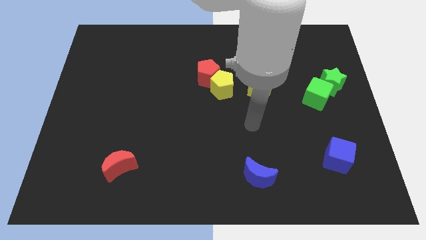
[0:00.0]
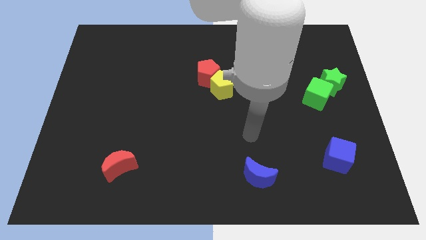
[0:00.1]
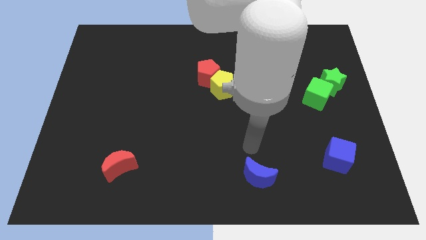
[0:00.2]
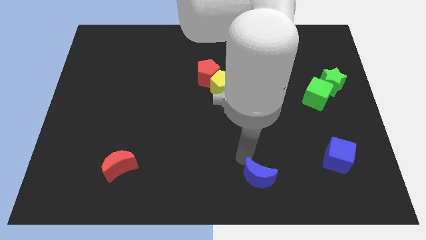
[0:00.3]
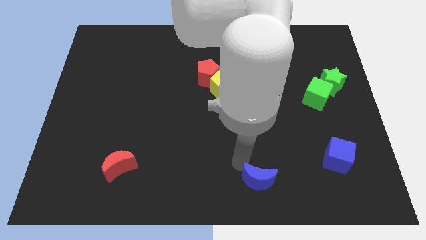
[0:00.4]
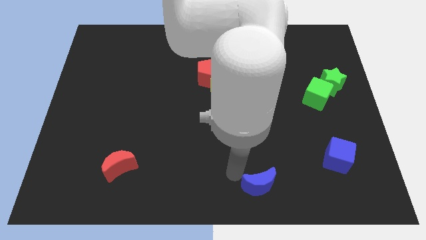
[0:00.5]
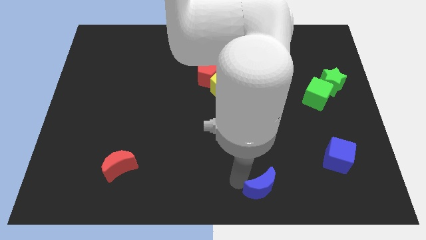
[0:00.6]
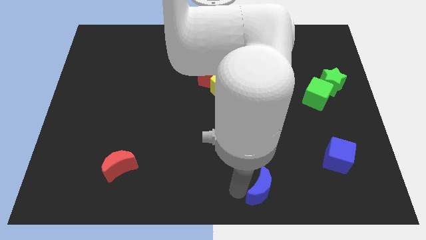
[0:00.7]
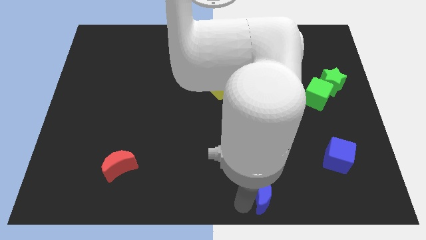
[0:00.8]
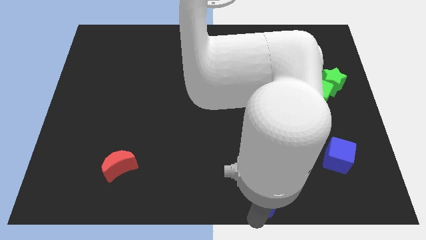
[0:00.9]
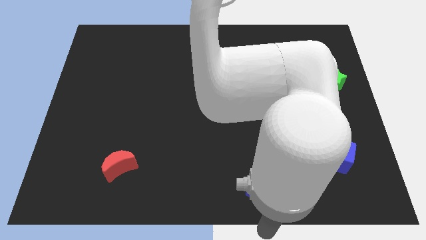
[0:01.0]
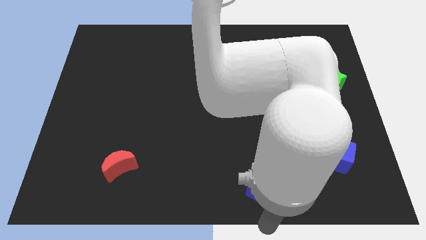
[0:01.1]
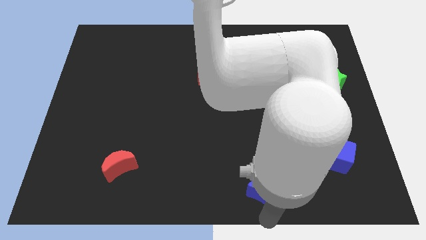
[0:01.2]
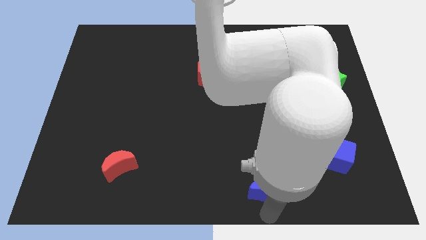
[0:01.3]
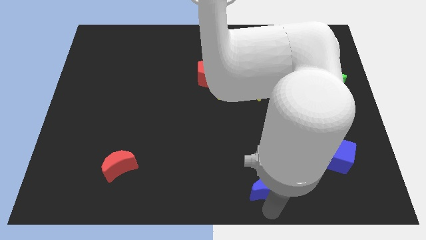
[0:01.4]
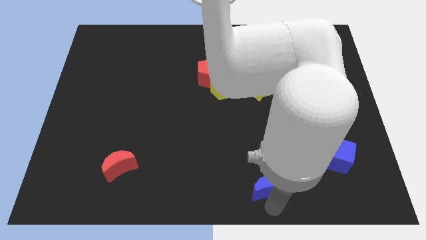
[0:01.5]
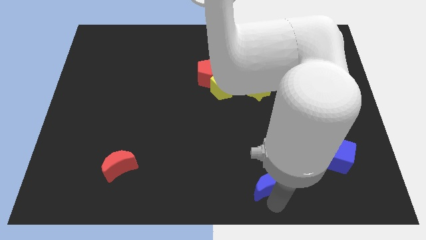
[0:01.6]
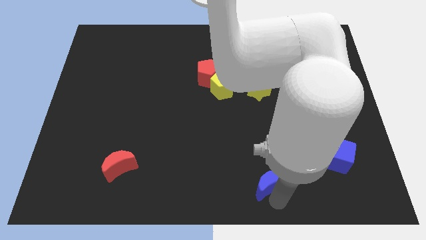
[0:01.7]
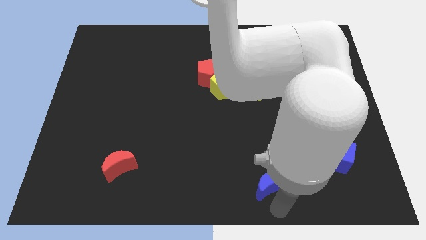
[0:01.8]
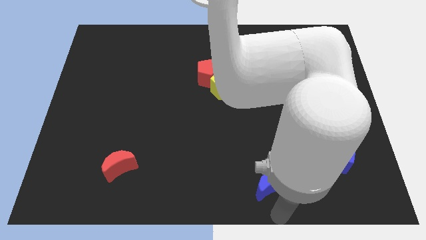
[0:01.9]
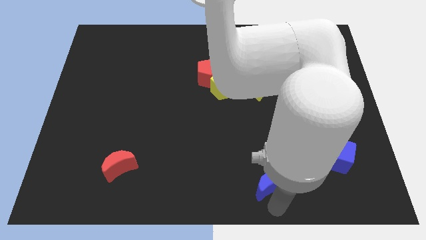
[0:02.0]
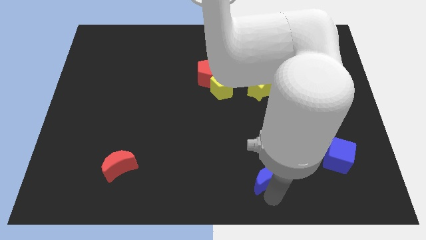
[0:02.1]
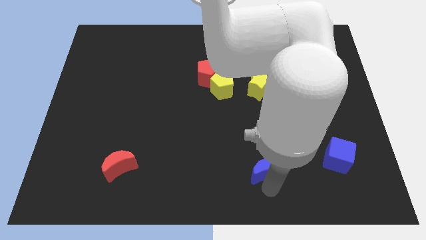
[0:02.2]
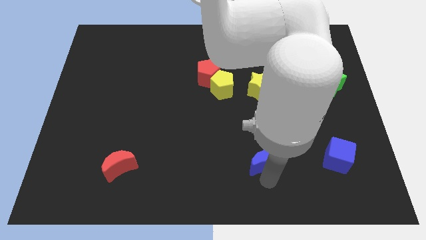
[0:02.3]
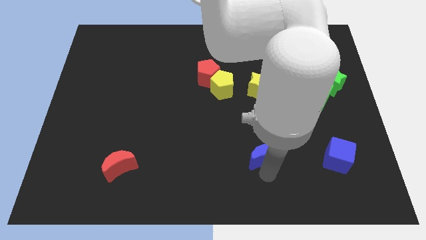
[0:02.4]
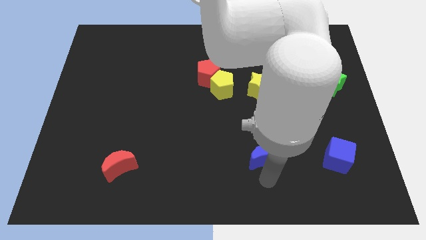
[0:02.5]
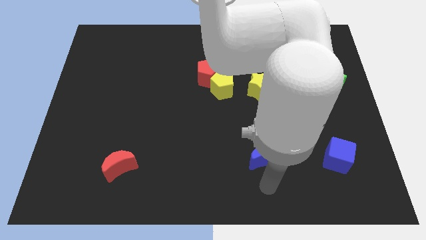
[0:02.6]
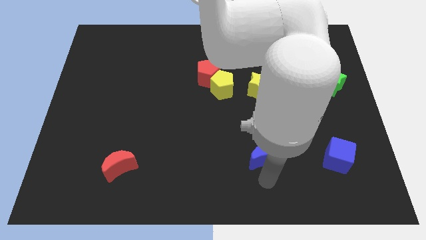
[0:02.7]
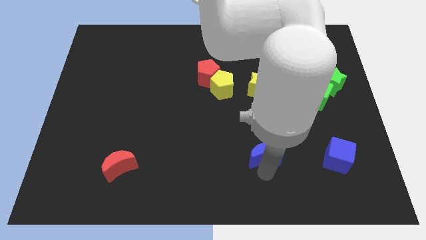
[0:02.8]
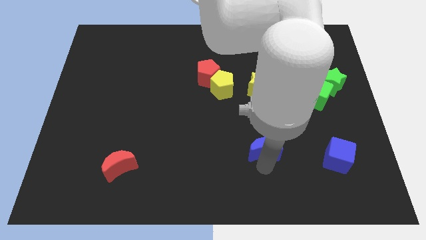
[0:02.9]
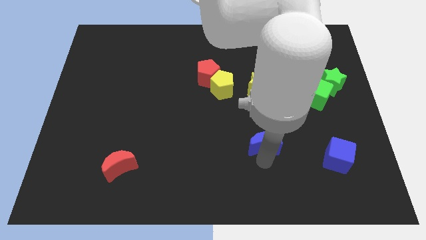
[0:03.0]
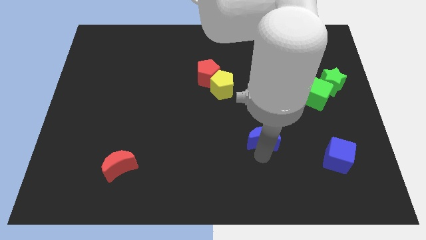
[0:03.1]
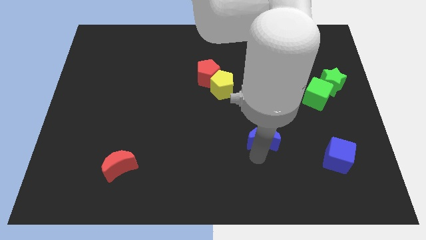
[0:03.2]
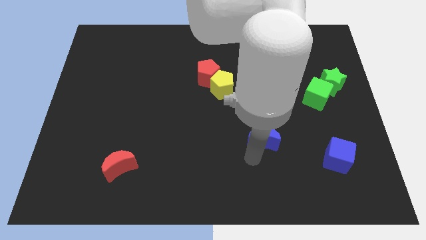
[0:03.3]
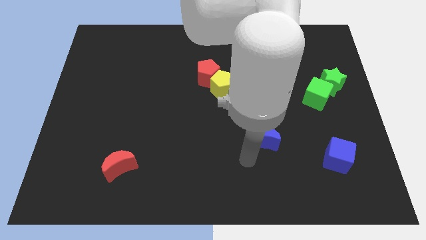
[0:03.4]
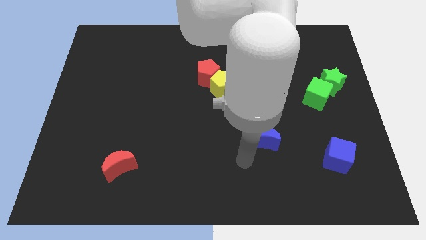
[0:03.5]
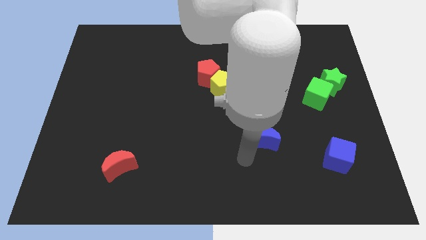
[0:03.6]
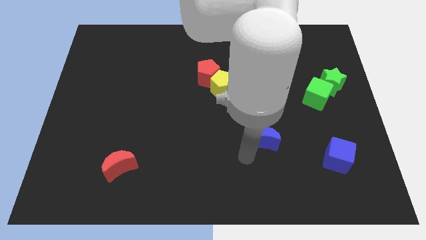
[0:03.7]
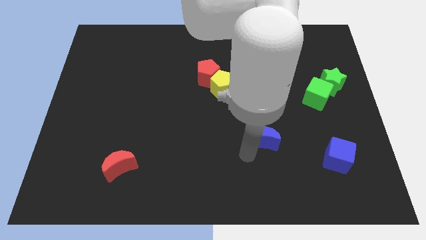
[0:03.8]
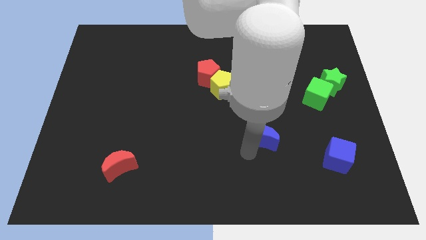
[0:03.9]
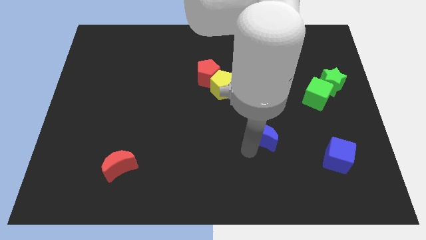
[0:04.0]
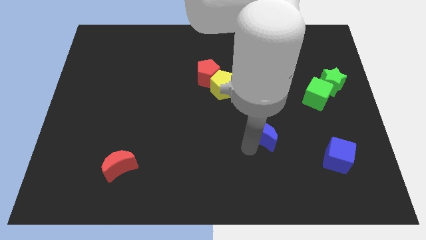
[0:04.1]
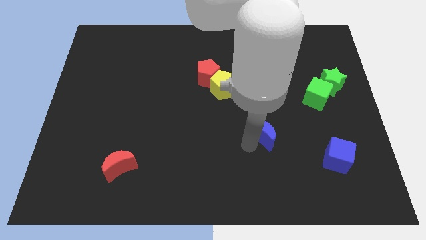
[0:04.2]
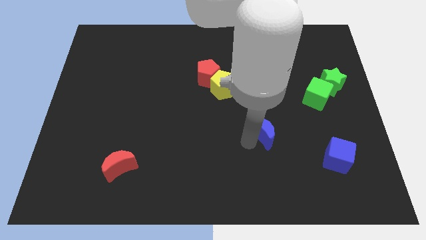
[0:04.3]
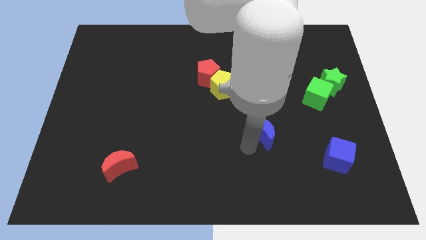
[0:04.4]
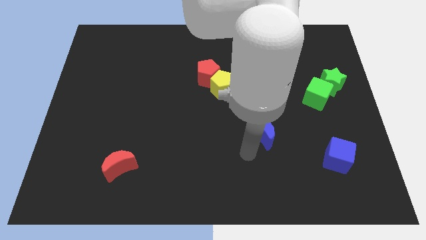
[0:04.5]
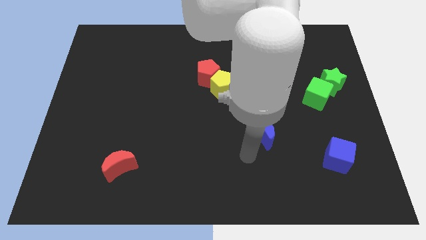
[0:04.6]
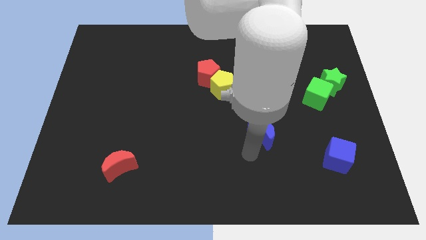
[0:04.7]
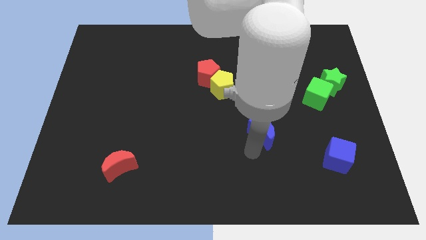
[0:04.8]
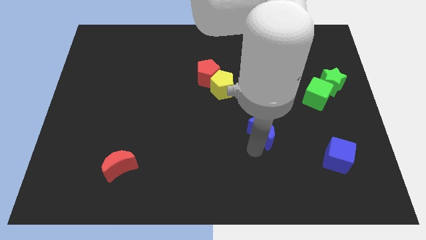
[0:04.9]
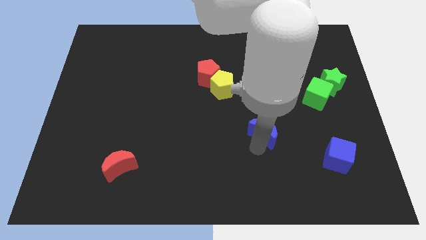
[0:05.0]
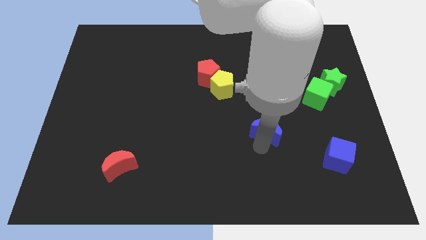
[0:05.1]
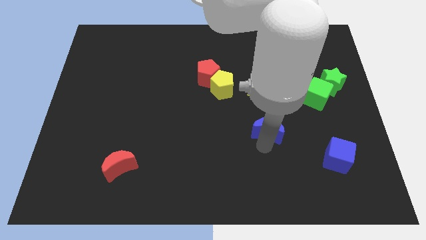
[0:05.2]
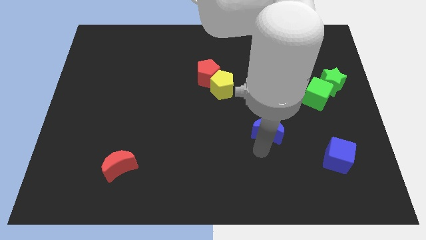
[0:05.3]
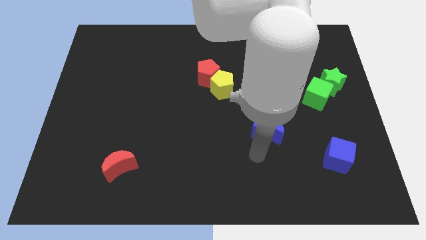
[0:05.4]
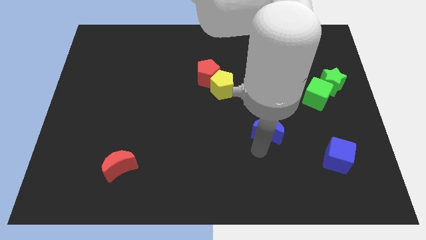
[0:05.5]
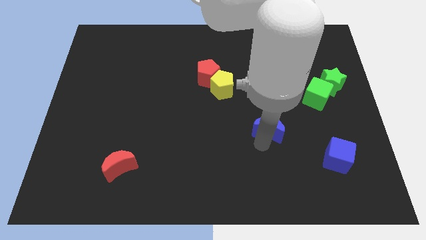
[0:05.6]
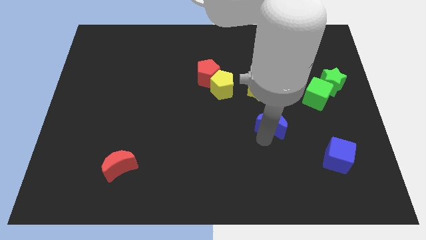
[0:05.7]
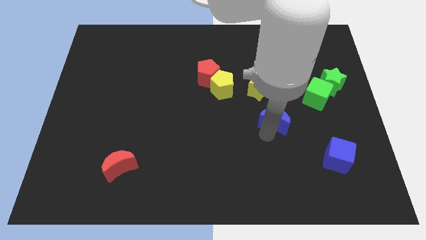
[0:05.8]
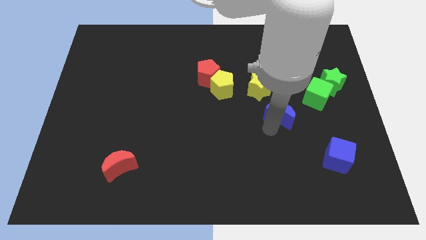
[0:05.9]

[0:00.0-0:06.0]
put the blue moon to the bottom right of the yellow star

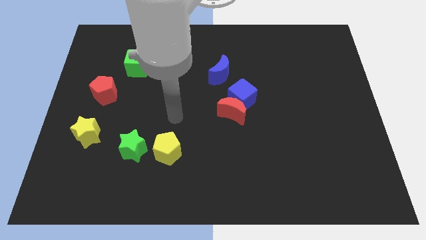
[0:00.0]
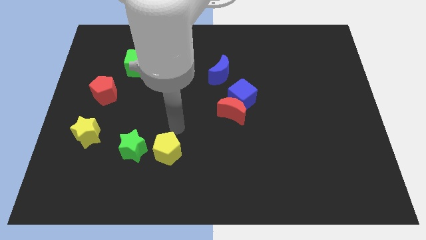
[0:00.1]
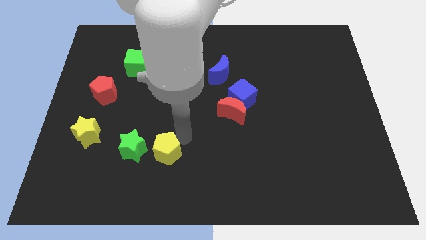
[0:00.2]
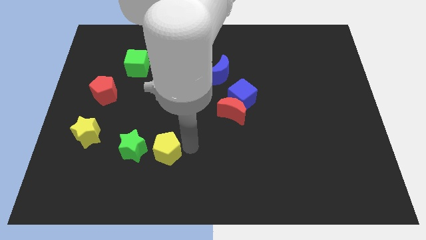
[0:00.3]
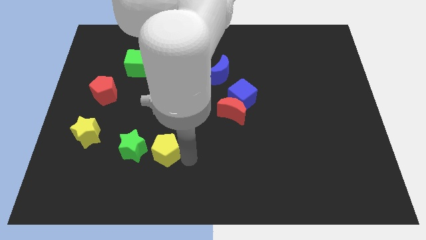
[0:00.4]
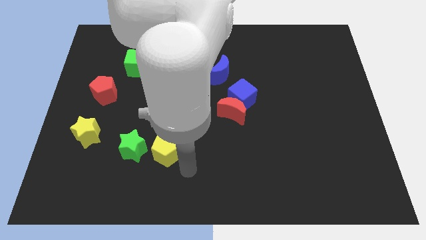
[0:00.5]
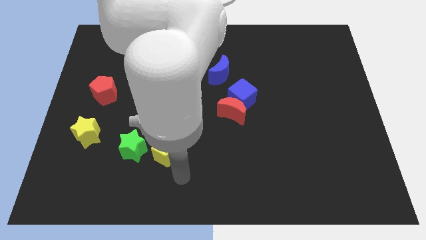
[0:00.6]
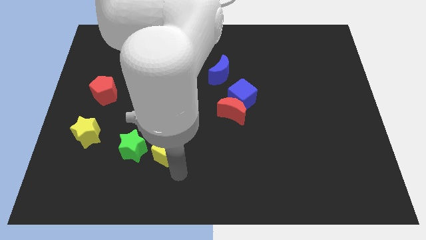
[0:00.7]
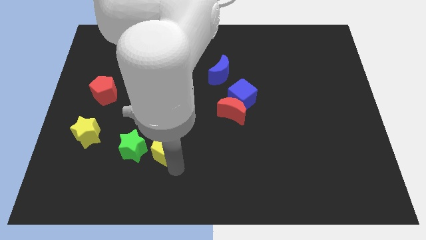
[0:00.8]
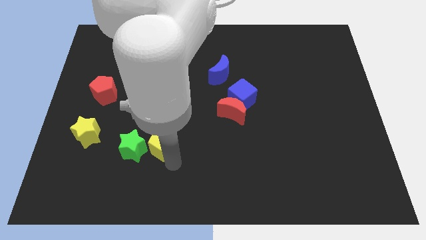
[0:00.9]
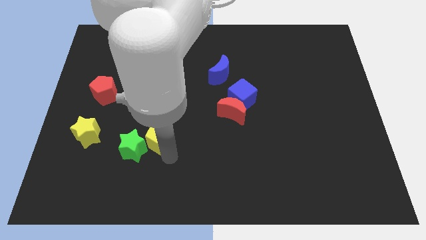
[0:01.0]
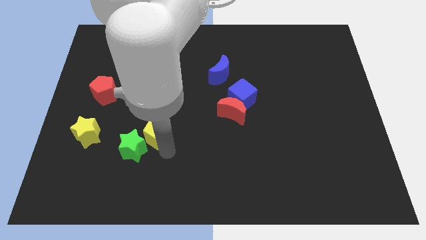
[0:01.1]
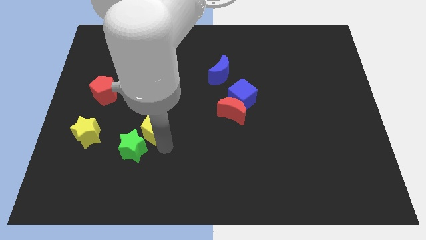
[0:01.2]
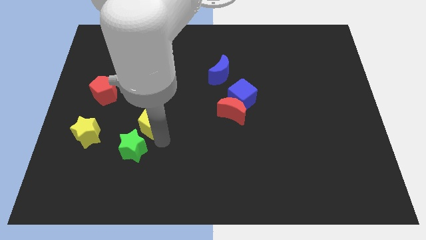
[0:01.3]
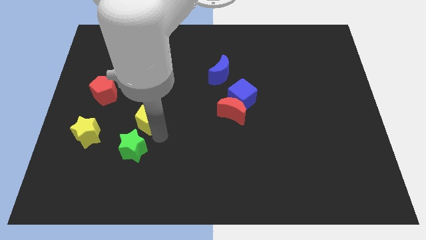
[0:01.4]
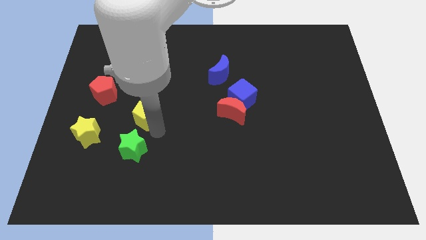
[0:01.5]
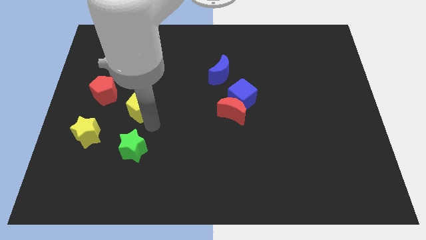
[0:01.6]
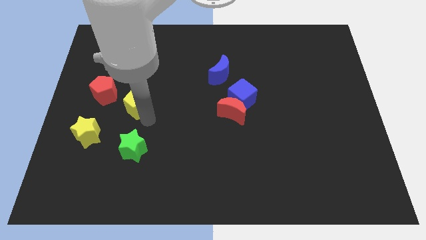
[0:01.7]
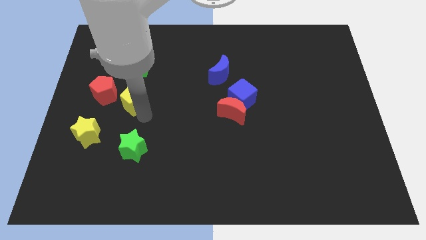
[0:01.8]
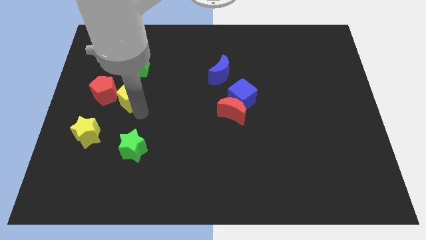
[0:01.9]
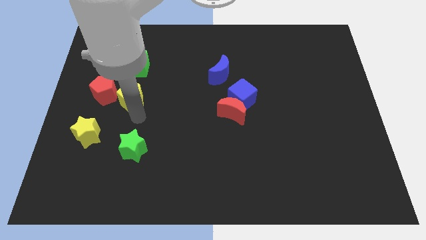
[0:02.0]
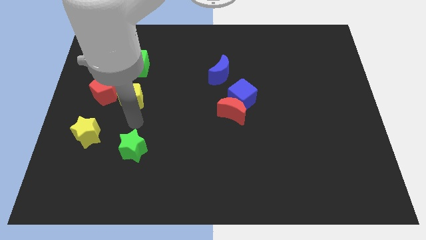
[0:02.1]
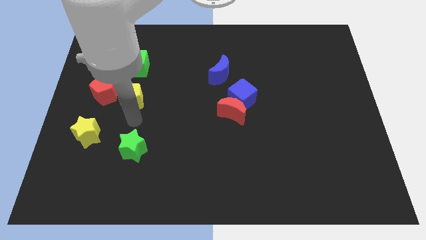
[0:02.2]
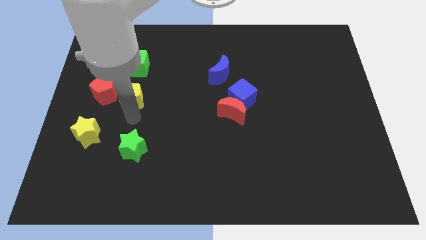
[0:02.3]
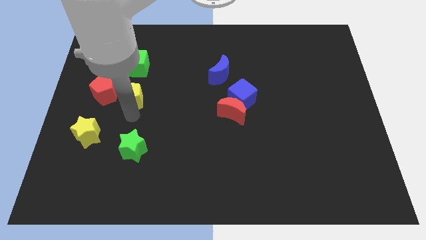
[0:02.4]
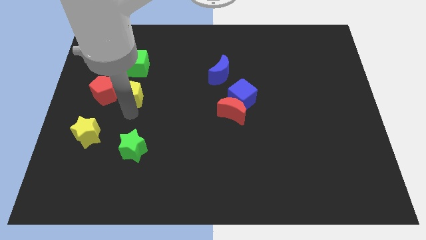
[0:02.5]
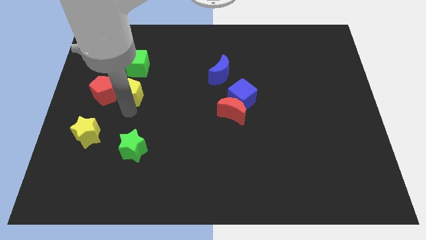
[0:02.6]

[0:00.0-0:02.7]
move the yellow pentagon diagonally up and to the right of the red pentagon
